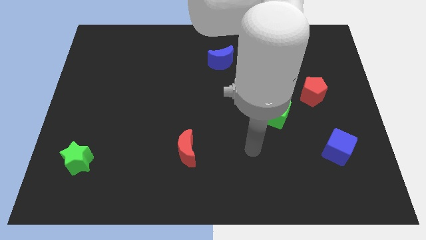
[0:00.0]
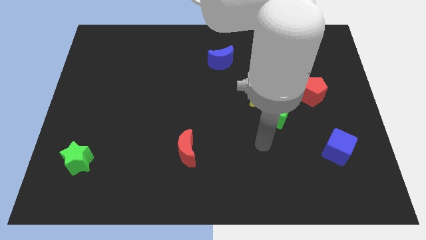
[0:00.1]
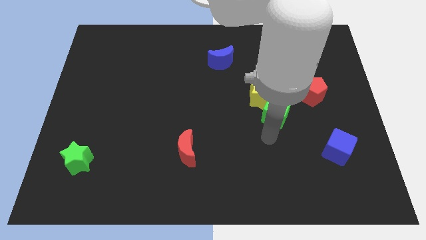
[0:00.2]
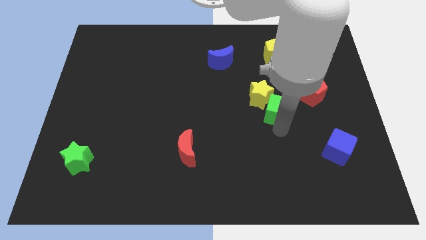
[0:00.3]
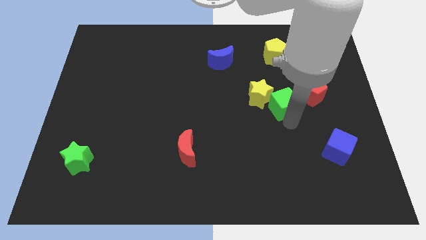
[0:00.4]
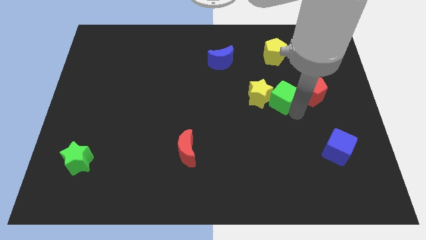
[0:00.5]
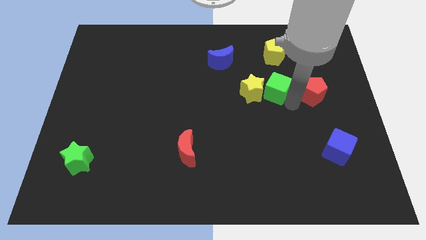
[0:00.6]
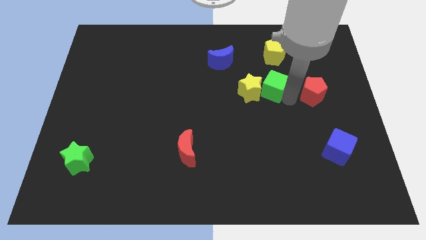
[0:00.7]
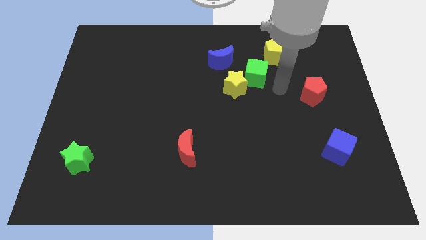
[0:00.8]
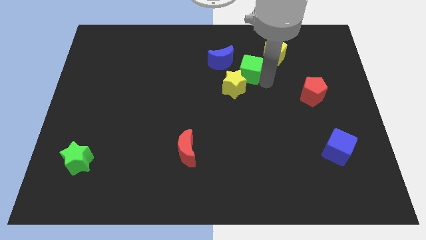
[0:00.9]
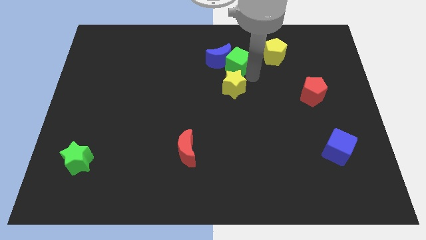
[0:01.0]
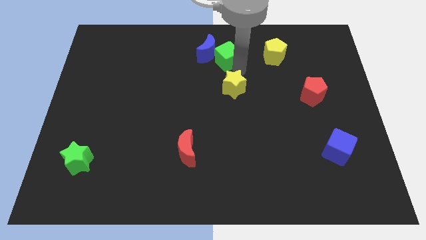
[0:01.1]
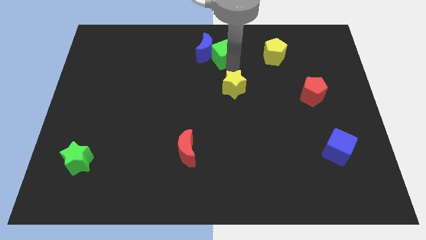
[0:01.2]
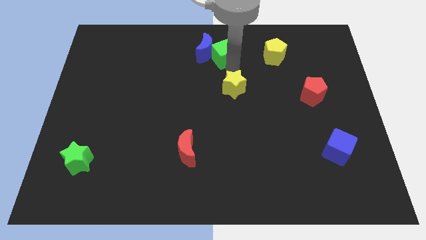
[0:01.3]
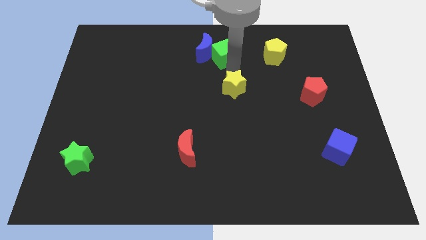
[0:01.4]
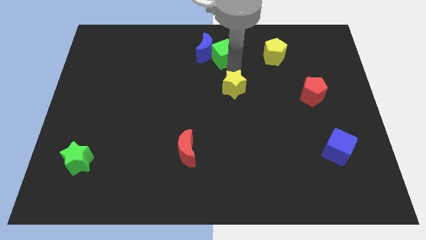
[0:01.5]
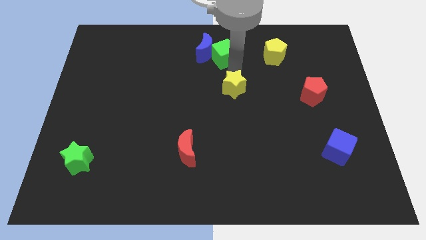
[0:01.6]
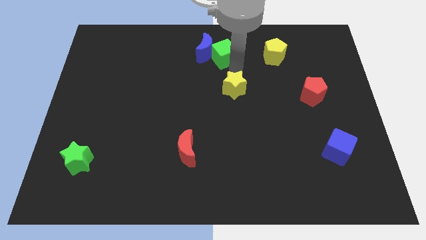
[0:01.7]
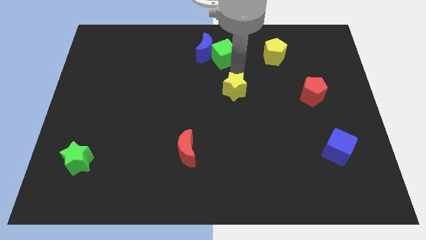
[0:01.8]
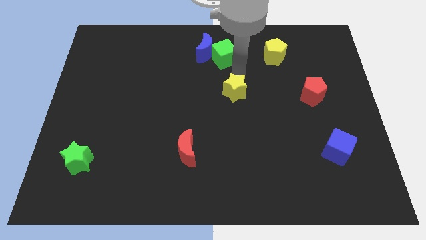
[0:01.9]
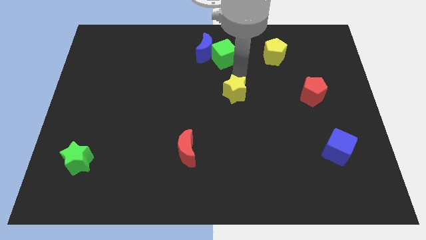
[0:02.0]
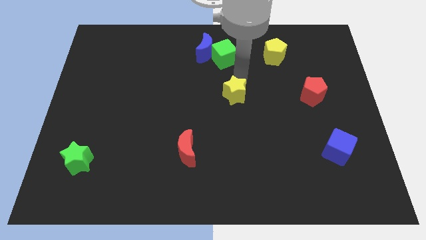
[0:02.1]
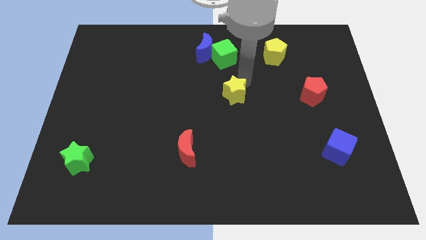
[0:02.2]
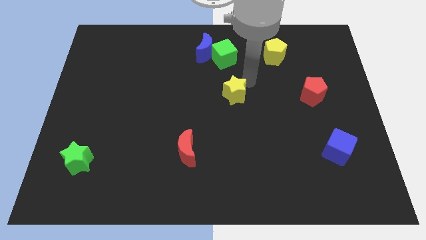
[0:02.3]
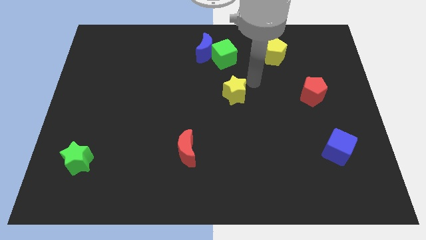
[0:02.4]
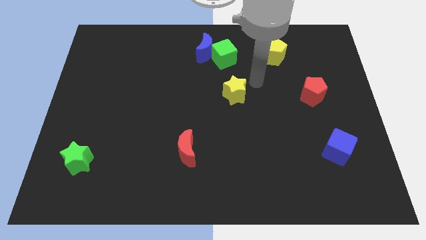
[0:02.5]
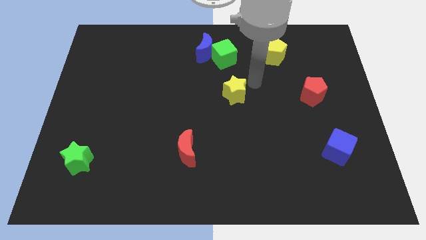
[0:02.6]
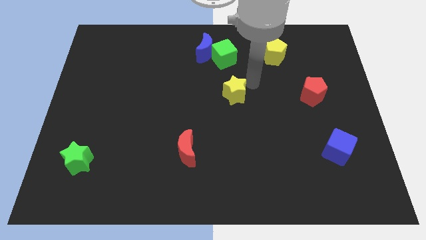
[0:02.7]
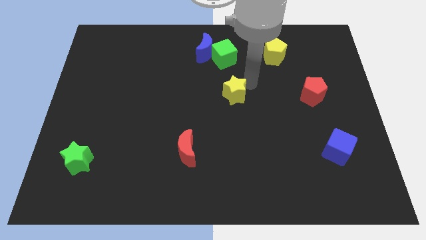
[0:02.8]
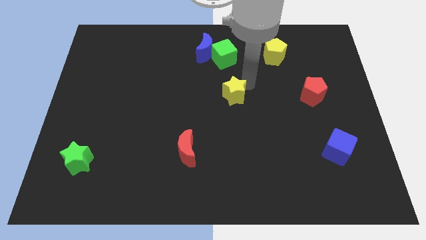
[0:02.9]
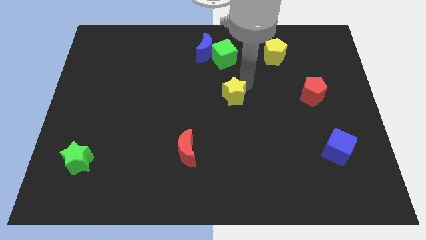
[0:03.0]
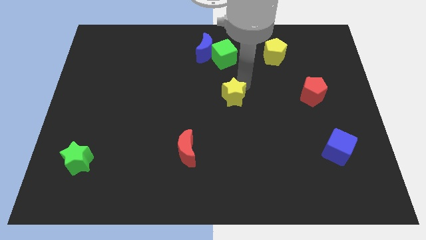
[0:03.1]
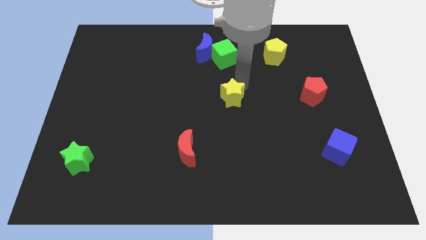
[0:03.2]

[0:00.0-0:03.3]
push the yellow star slightly to the left

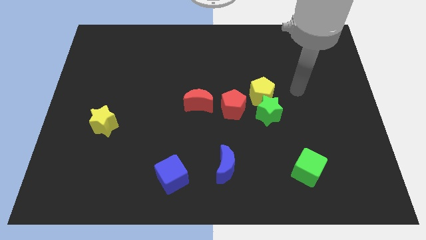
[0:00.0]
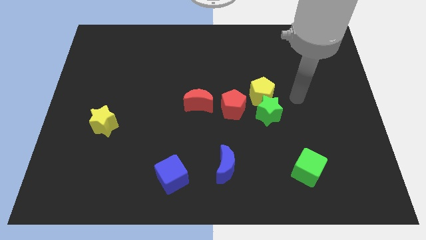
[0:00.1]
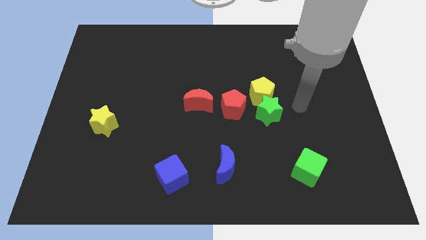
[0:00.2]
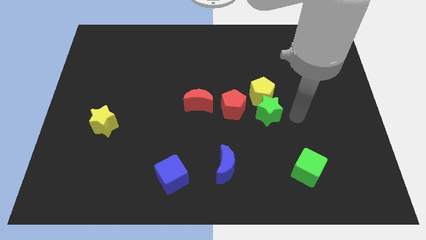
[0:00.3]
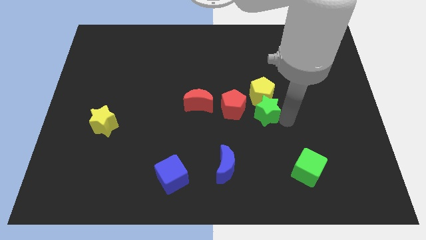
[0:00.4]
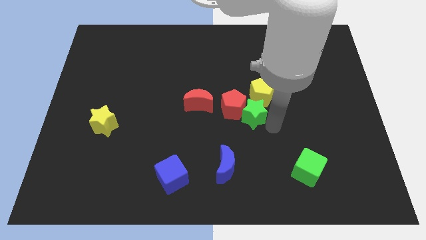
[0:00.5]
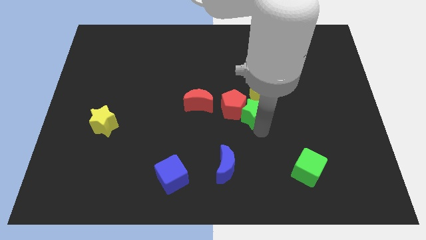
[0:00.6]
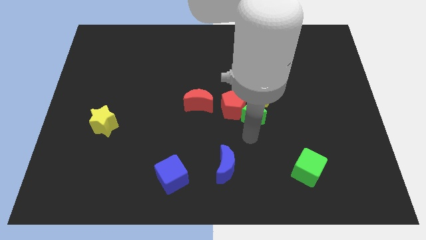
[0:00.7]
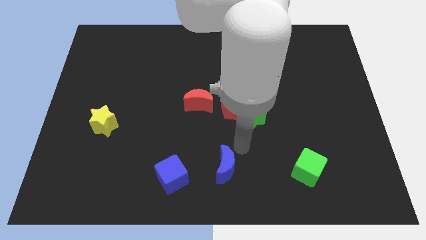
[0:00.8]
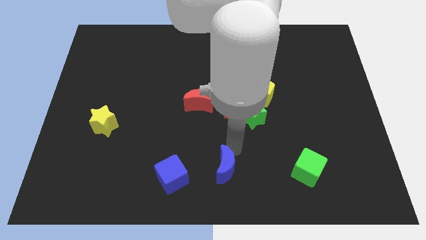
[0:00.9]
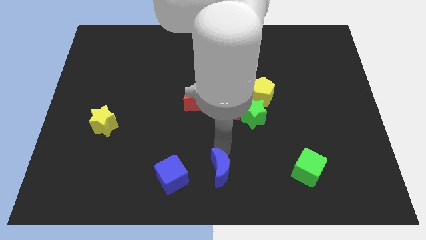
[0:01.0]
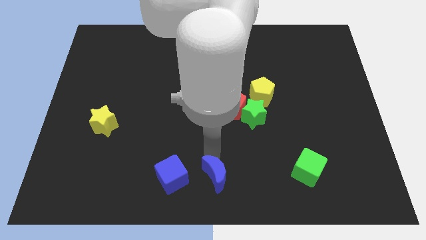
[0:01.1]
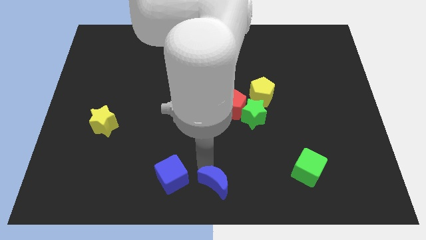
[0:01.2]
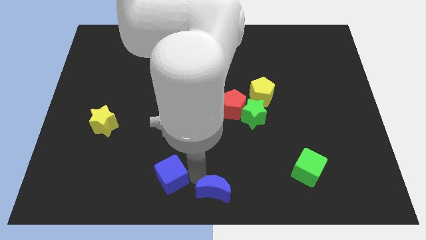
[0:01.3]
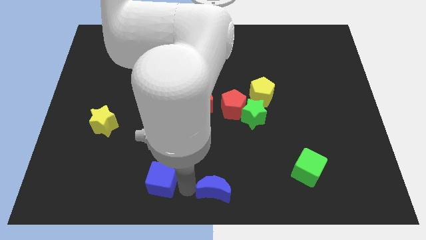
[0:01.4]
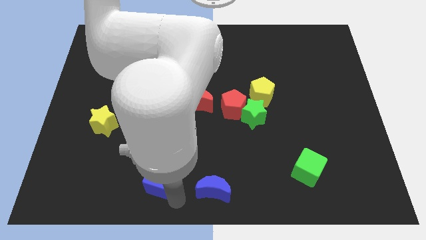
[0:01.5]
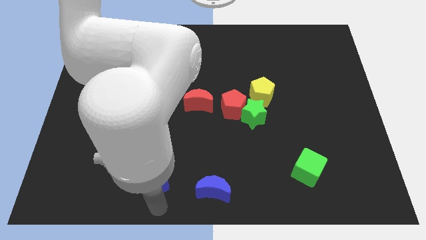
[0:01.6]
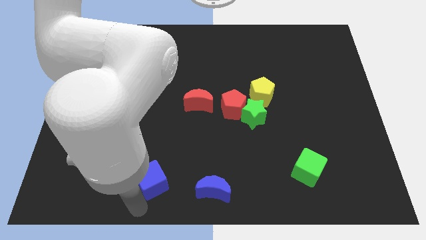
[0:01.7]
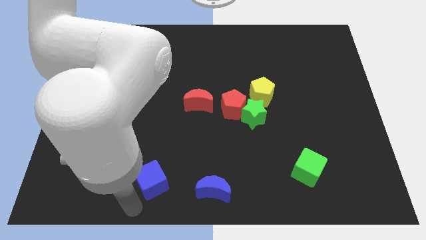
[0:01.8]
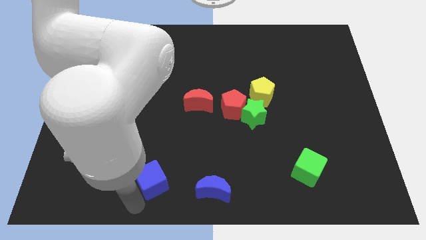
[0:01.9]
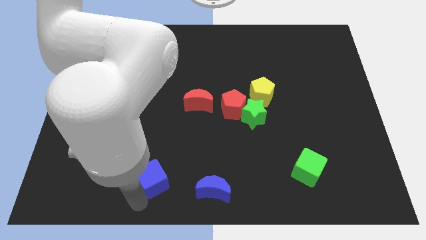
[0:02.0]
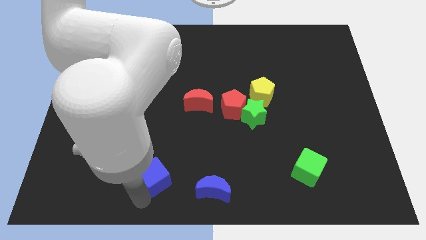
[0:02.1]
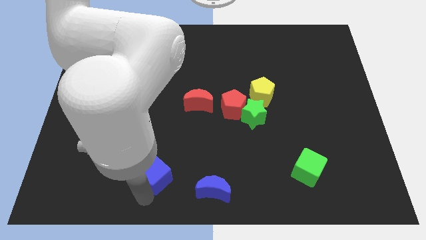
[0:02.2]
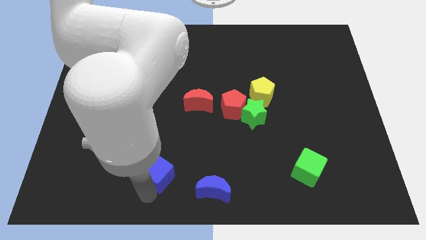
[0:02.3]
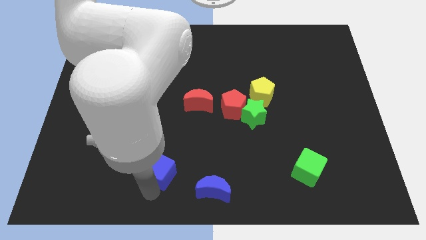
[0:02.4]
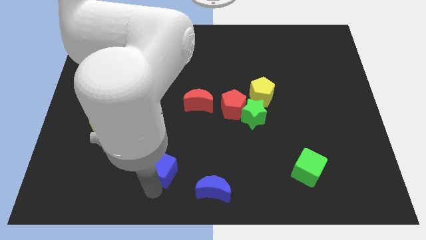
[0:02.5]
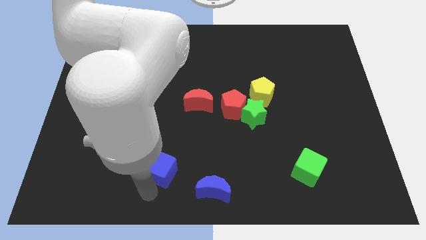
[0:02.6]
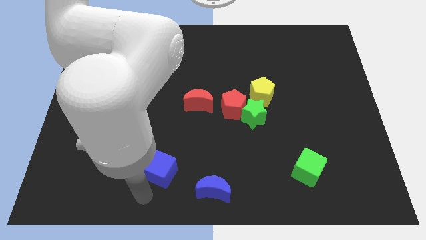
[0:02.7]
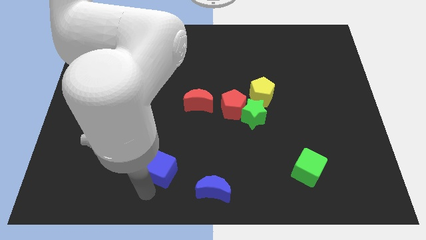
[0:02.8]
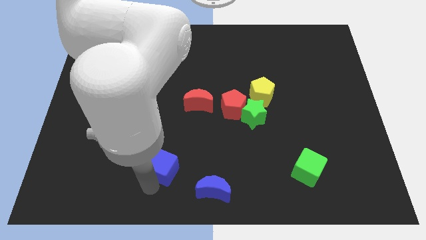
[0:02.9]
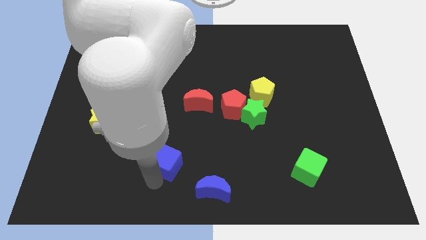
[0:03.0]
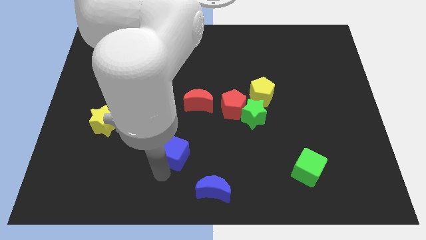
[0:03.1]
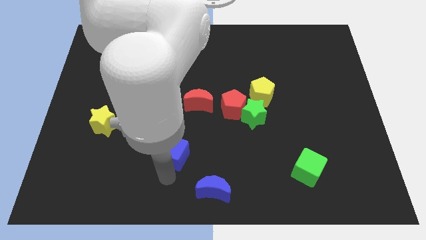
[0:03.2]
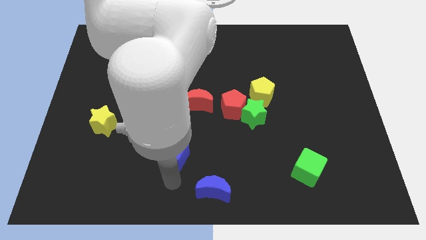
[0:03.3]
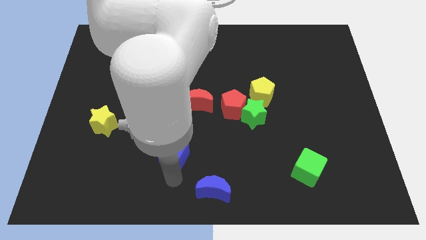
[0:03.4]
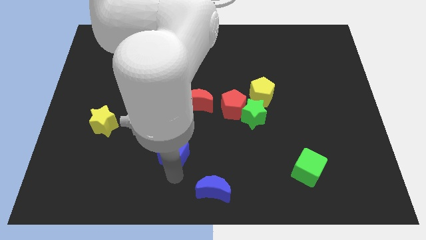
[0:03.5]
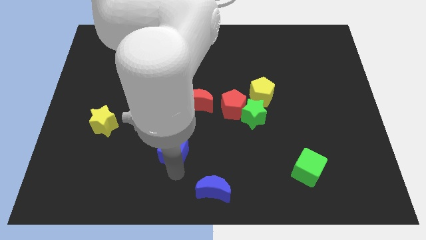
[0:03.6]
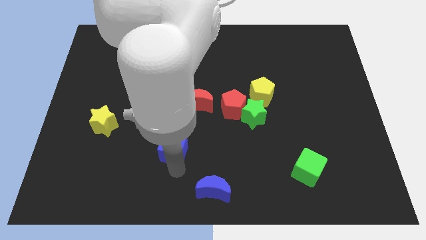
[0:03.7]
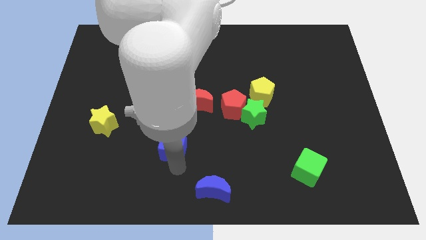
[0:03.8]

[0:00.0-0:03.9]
slide the blue cube up slightly

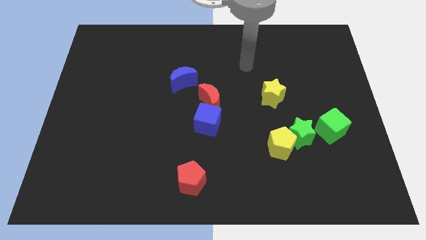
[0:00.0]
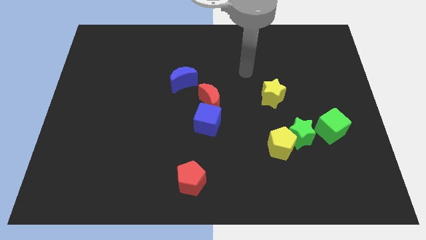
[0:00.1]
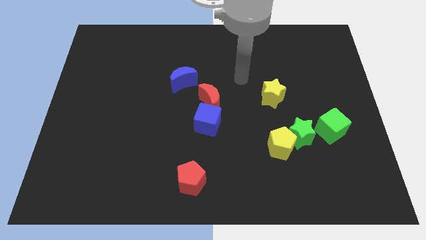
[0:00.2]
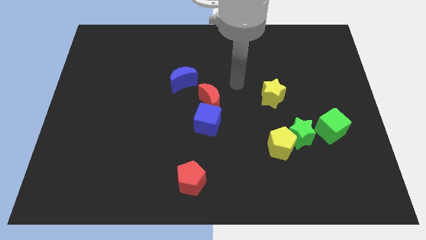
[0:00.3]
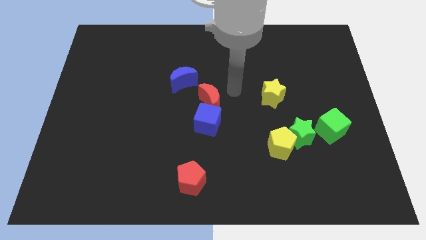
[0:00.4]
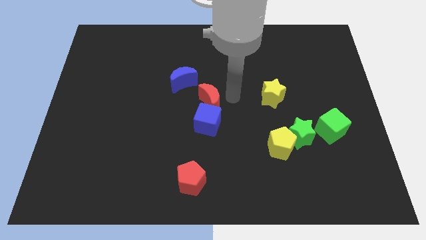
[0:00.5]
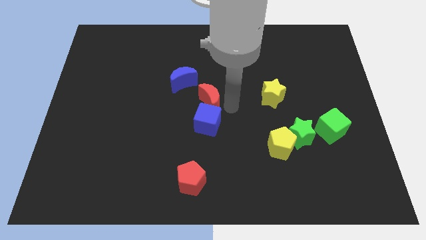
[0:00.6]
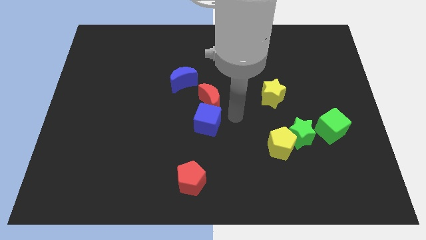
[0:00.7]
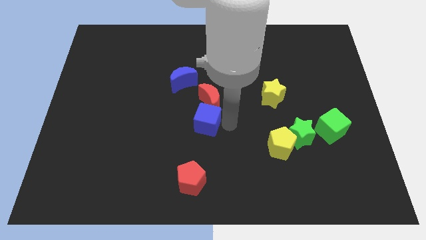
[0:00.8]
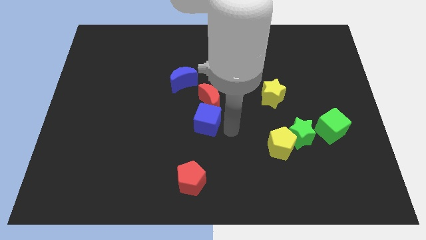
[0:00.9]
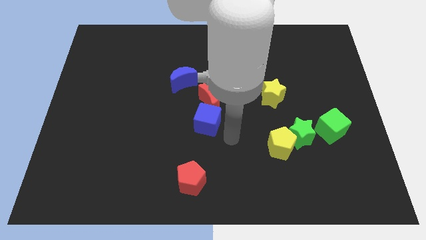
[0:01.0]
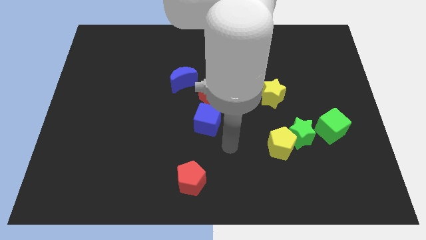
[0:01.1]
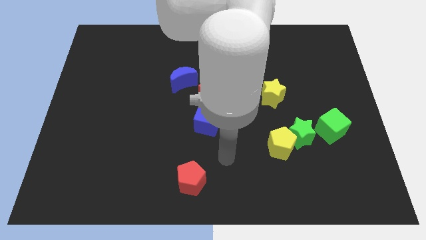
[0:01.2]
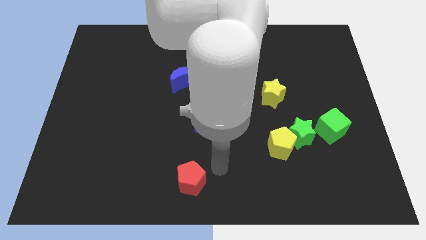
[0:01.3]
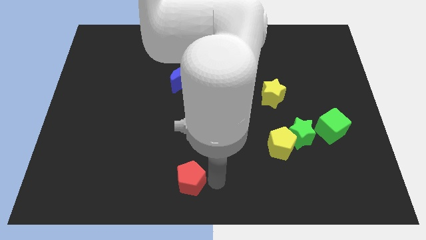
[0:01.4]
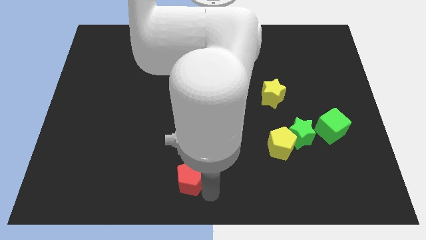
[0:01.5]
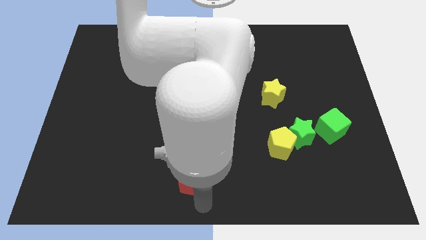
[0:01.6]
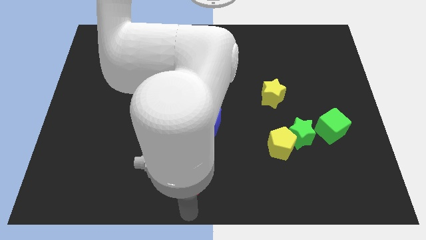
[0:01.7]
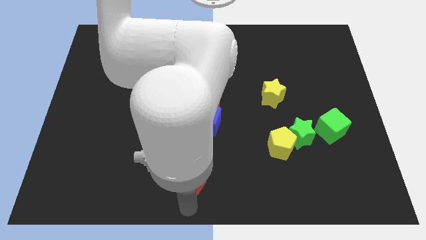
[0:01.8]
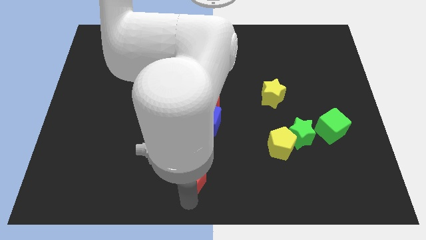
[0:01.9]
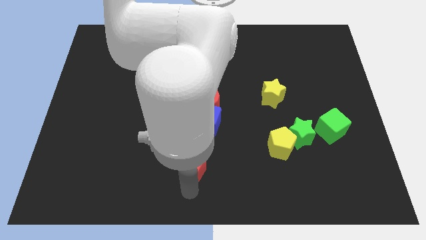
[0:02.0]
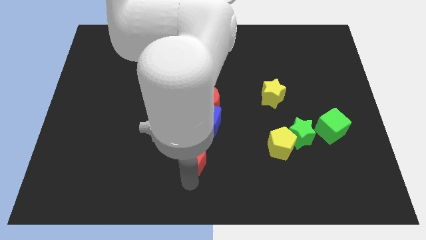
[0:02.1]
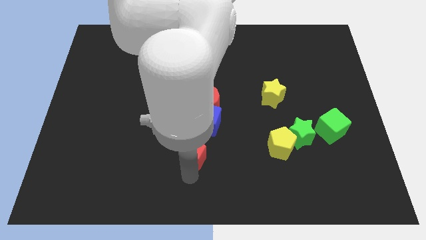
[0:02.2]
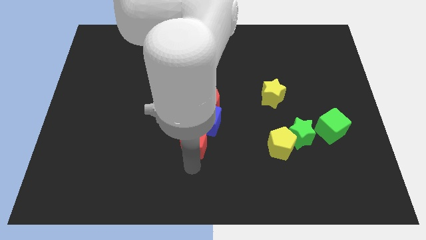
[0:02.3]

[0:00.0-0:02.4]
slightly slide the red pentagon up
